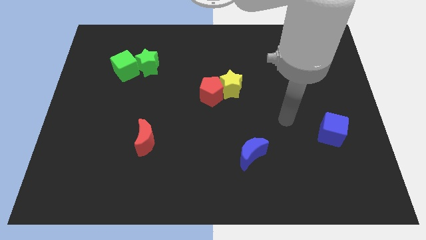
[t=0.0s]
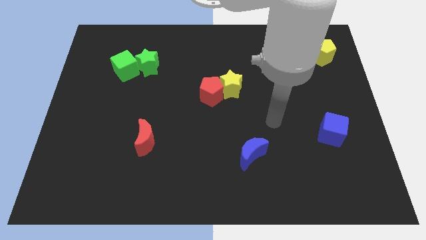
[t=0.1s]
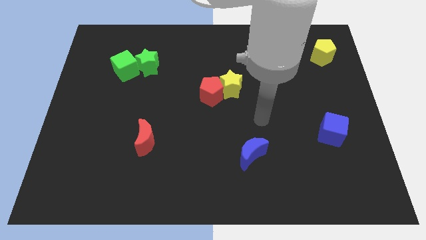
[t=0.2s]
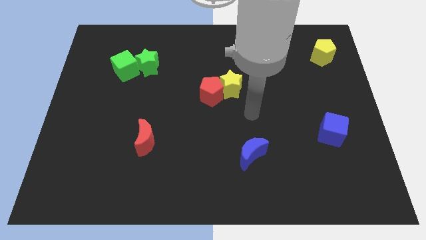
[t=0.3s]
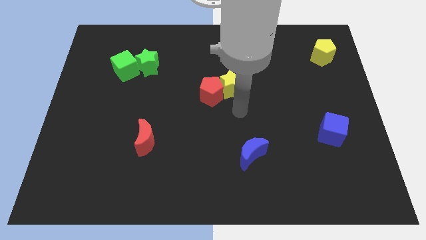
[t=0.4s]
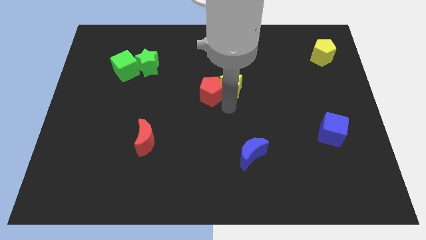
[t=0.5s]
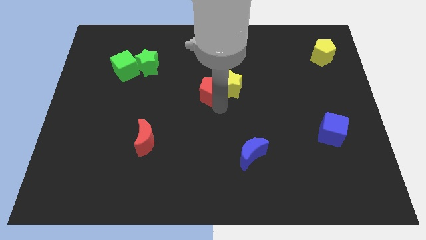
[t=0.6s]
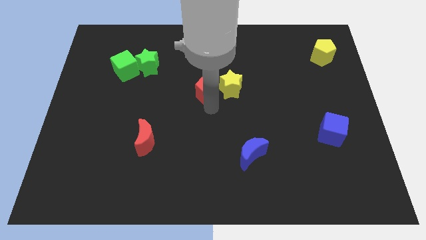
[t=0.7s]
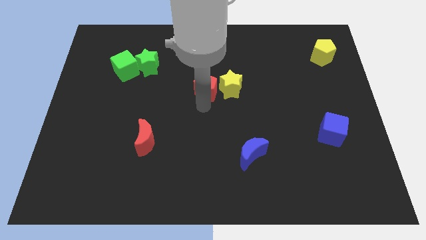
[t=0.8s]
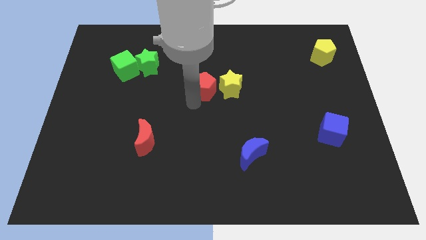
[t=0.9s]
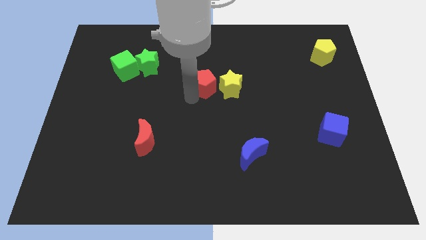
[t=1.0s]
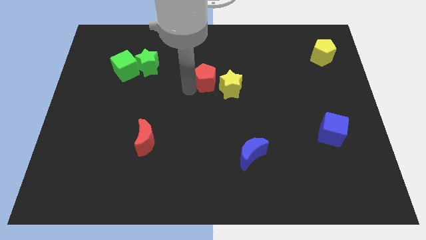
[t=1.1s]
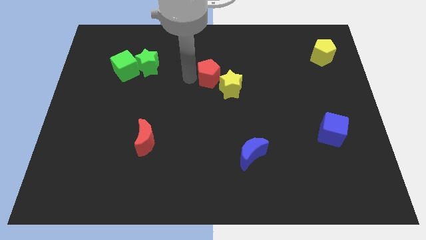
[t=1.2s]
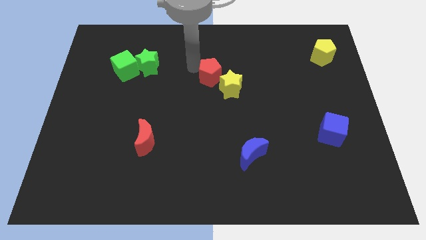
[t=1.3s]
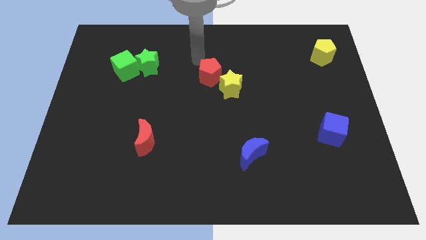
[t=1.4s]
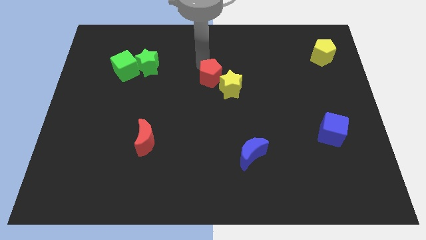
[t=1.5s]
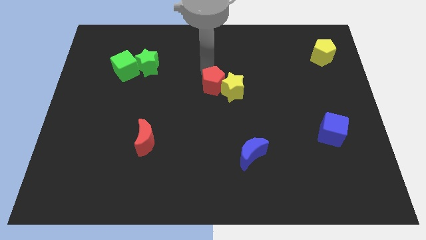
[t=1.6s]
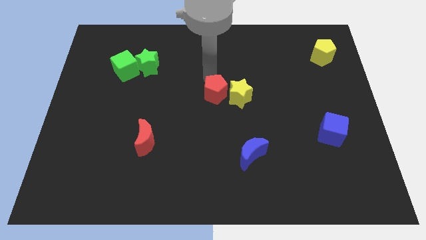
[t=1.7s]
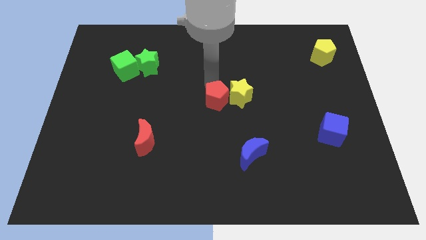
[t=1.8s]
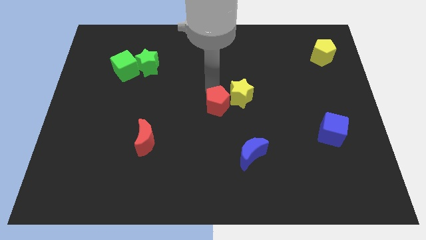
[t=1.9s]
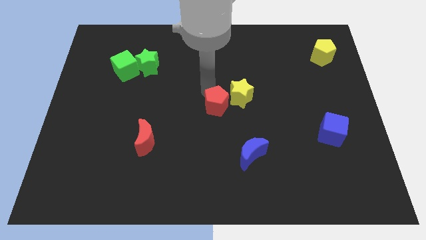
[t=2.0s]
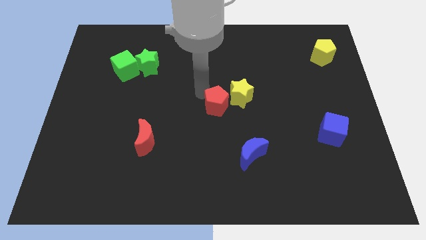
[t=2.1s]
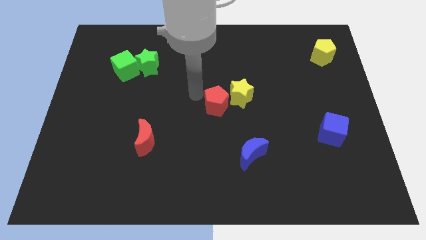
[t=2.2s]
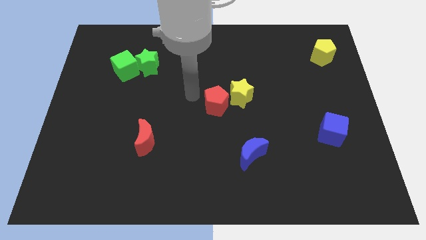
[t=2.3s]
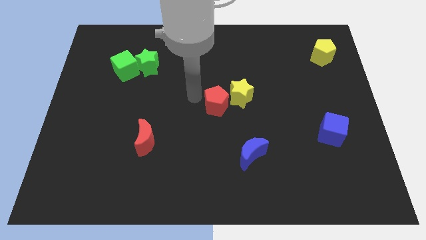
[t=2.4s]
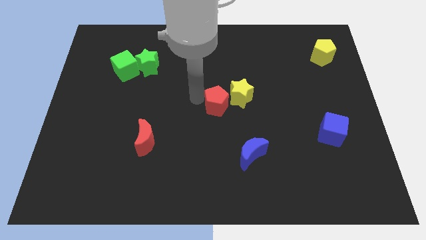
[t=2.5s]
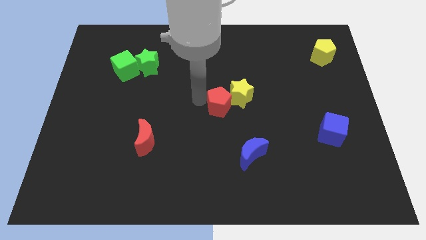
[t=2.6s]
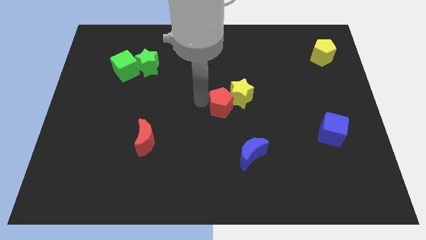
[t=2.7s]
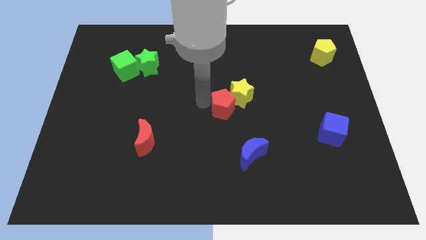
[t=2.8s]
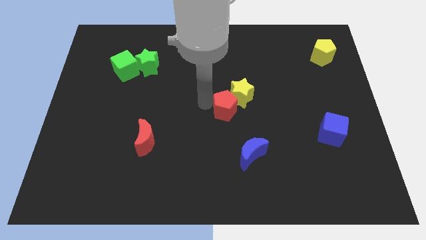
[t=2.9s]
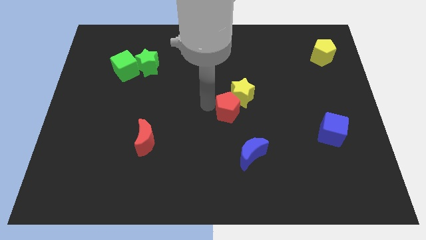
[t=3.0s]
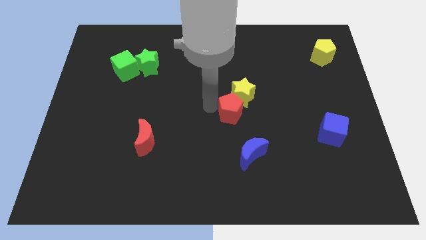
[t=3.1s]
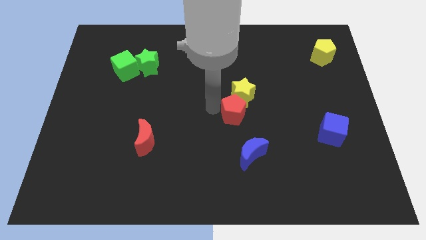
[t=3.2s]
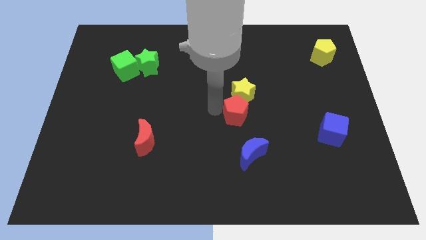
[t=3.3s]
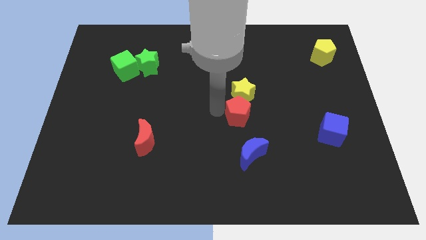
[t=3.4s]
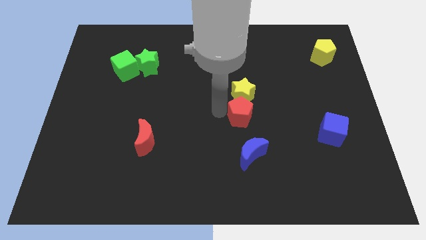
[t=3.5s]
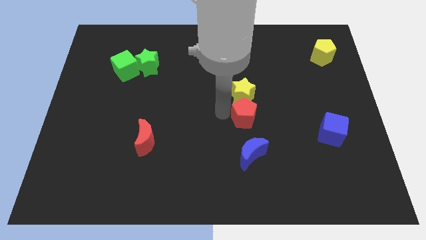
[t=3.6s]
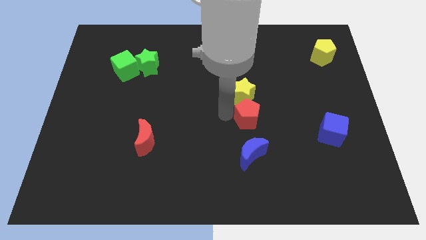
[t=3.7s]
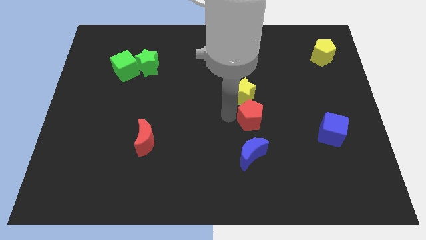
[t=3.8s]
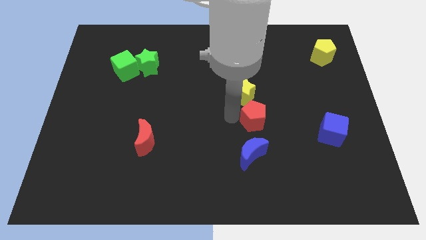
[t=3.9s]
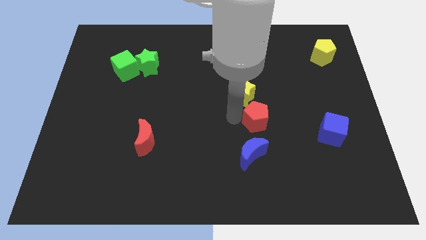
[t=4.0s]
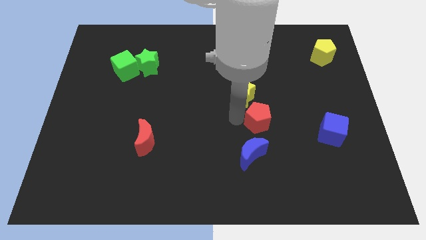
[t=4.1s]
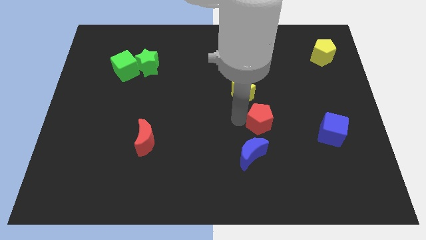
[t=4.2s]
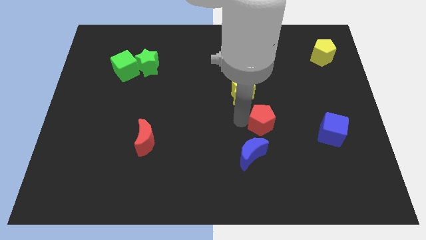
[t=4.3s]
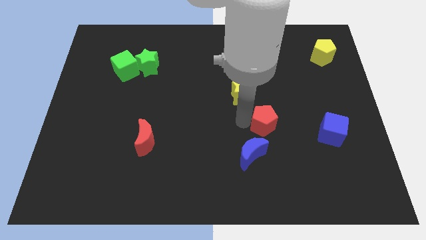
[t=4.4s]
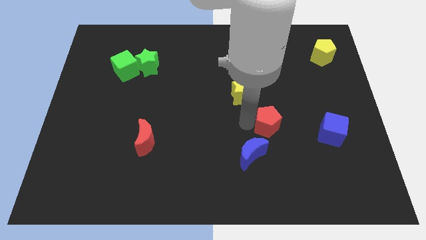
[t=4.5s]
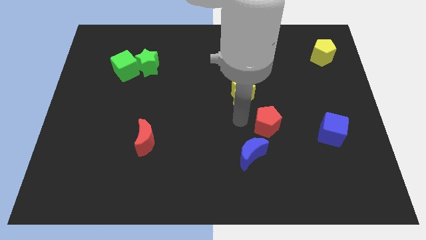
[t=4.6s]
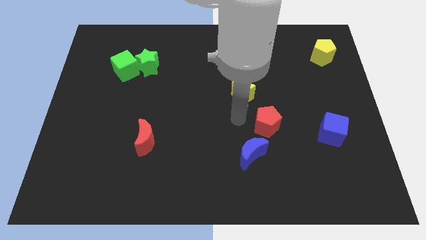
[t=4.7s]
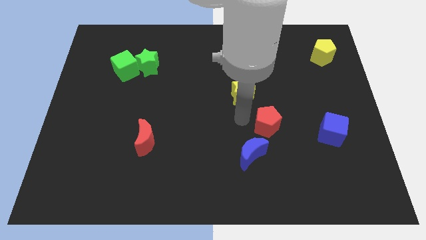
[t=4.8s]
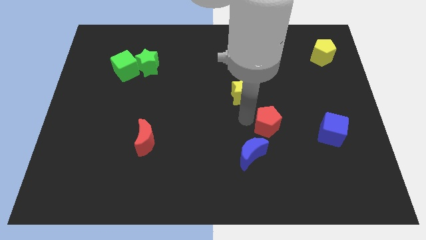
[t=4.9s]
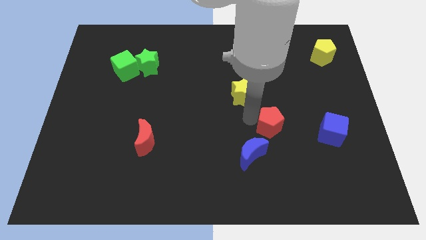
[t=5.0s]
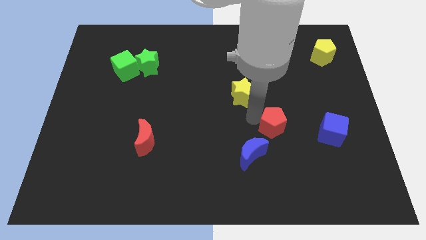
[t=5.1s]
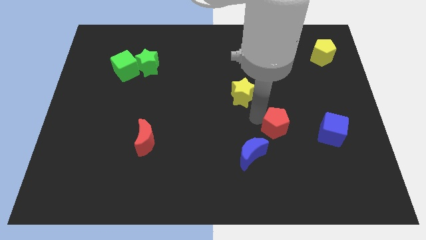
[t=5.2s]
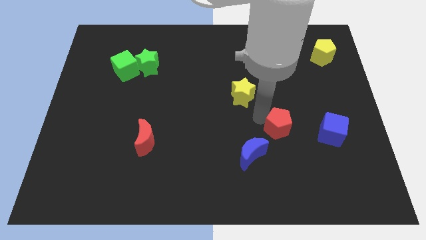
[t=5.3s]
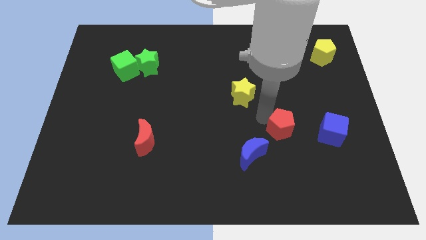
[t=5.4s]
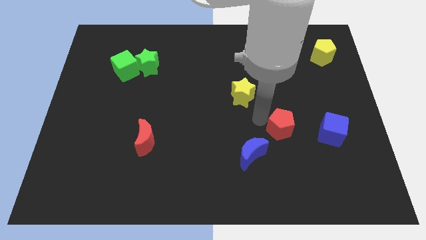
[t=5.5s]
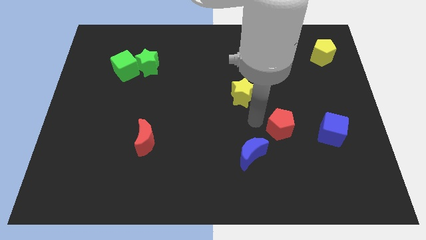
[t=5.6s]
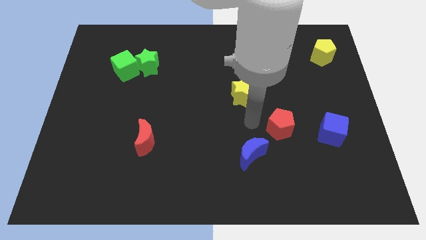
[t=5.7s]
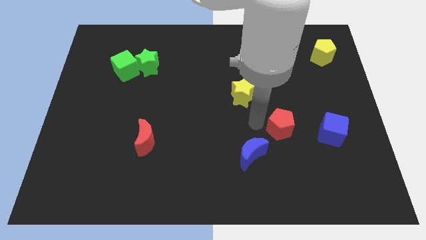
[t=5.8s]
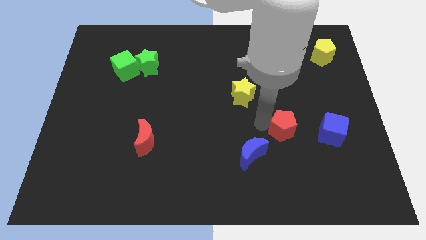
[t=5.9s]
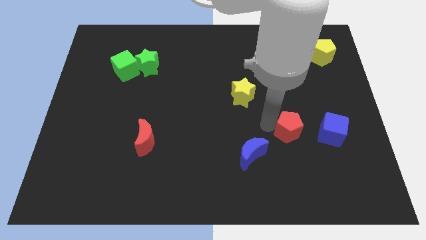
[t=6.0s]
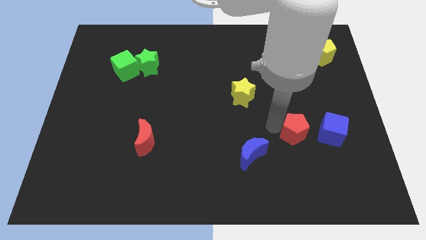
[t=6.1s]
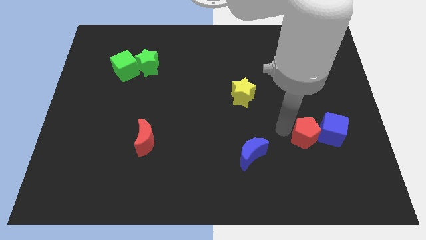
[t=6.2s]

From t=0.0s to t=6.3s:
move the red pentagon close to the blue cube

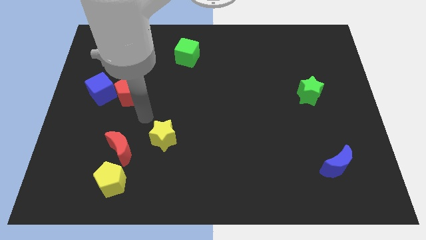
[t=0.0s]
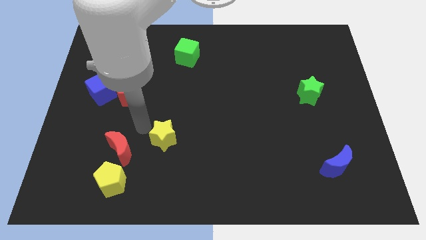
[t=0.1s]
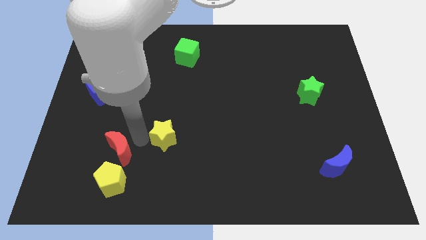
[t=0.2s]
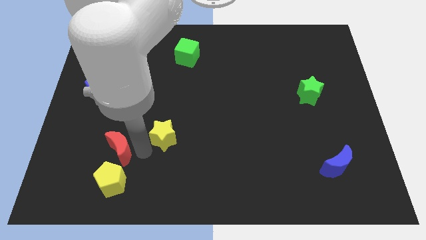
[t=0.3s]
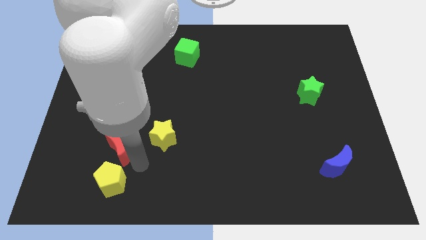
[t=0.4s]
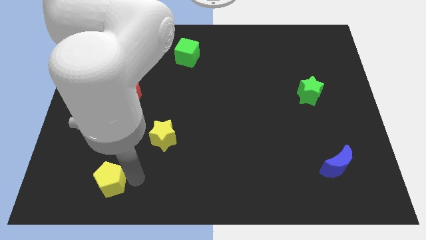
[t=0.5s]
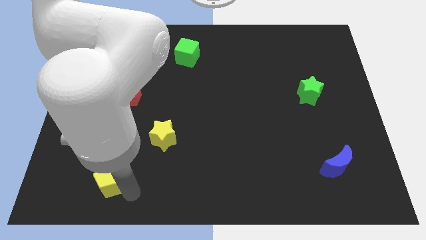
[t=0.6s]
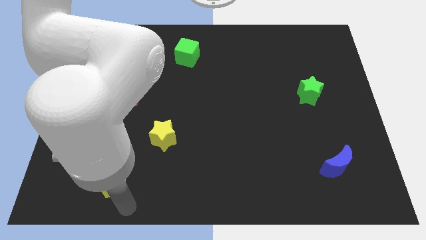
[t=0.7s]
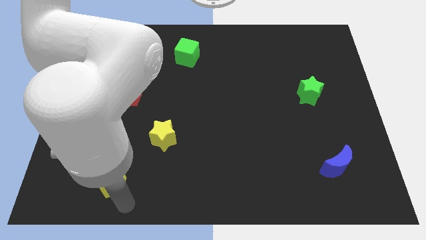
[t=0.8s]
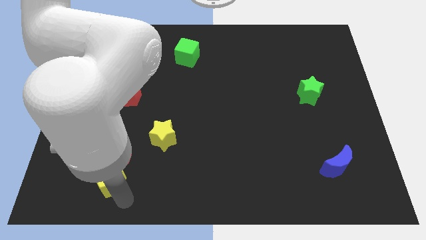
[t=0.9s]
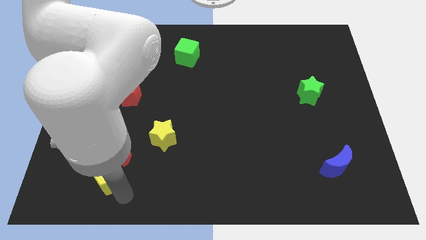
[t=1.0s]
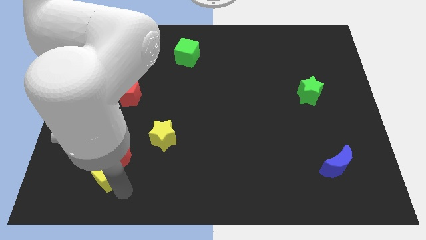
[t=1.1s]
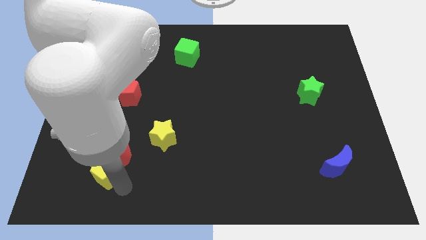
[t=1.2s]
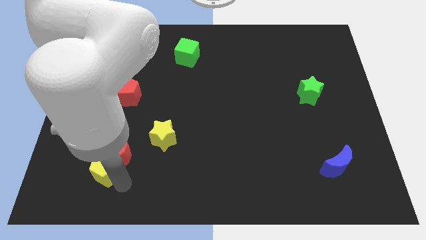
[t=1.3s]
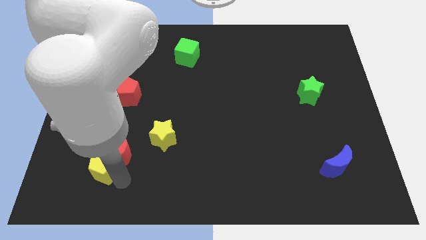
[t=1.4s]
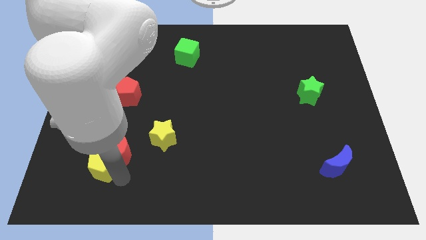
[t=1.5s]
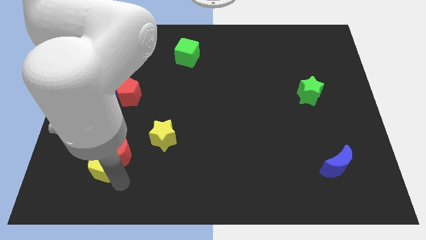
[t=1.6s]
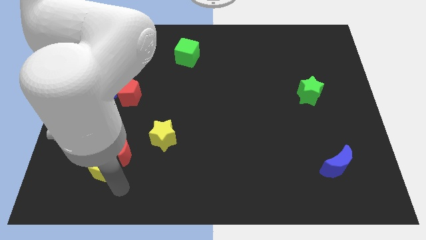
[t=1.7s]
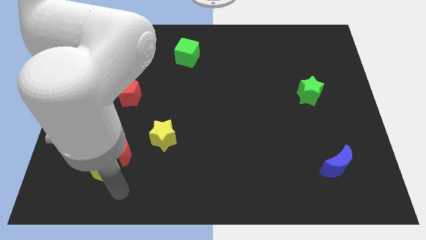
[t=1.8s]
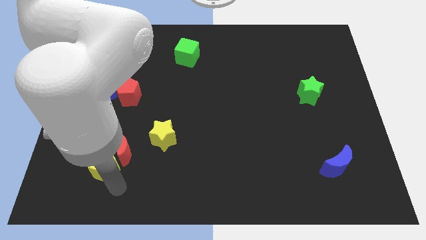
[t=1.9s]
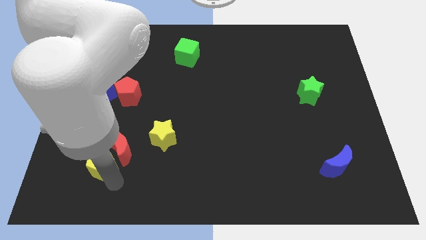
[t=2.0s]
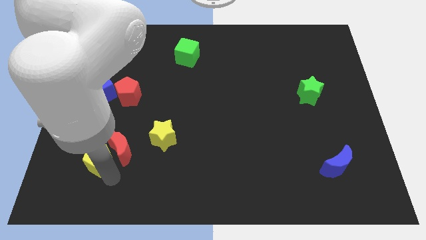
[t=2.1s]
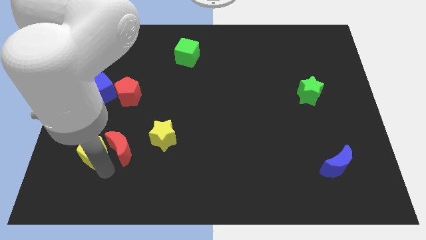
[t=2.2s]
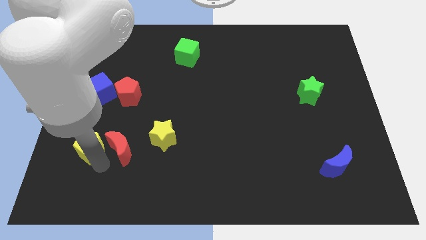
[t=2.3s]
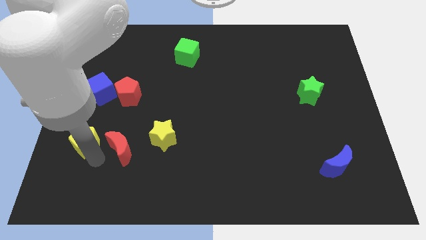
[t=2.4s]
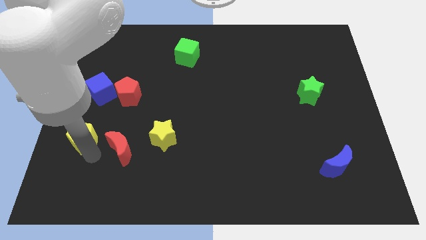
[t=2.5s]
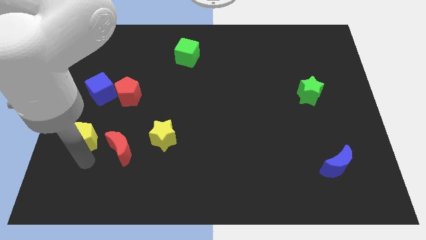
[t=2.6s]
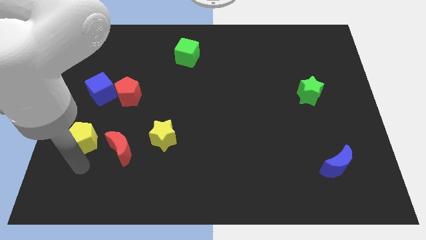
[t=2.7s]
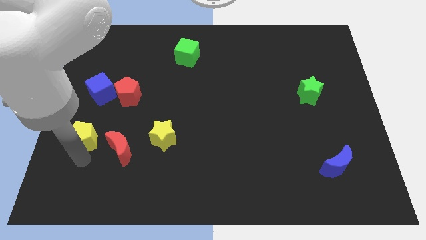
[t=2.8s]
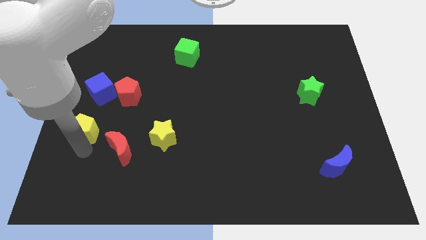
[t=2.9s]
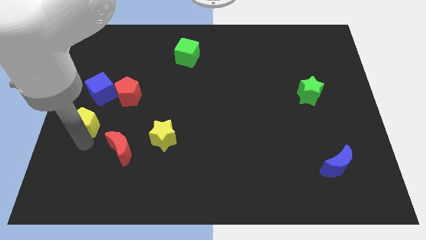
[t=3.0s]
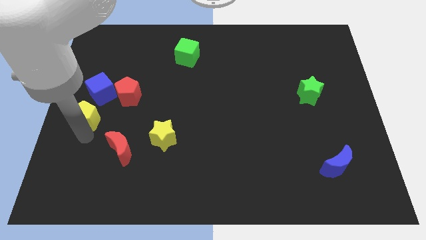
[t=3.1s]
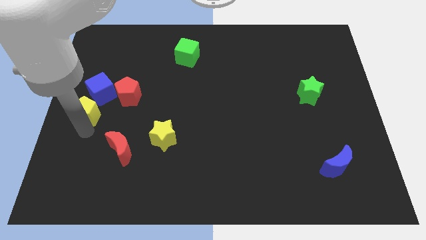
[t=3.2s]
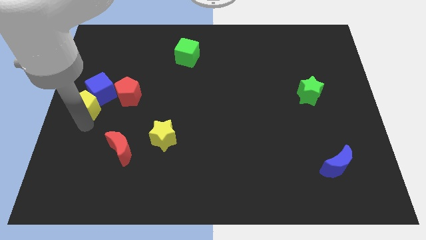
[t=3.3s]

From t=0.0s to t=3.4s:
push the yellow pentagon to the blue cube
